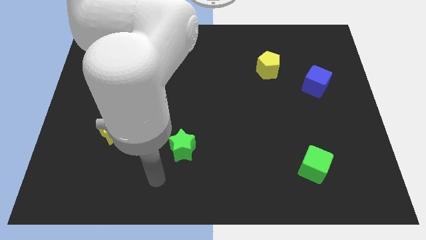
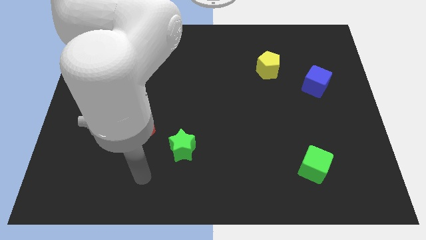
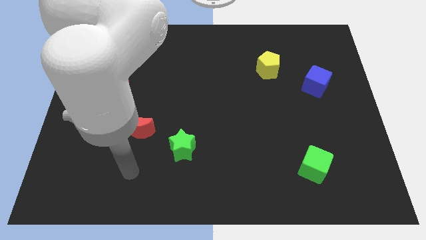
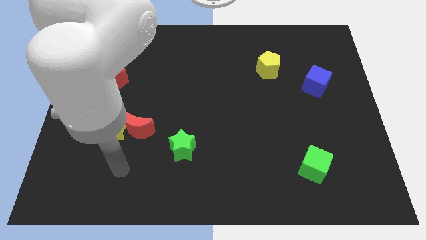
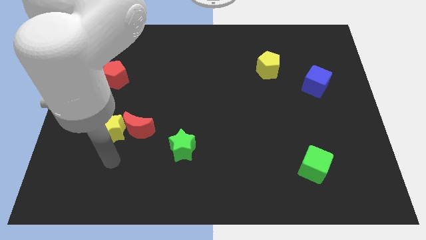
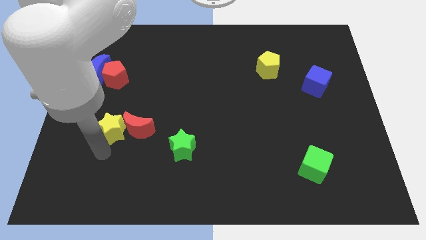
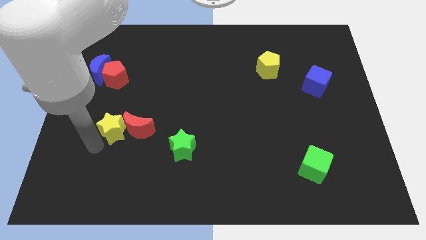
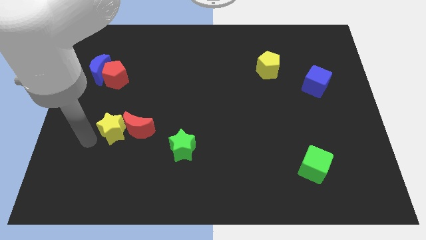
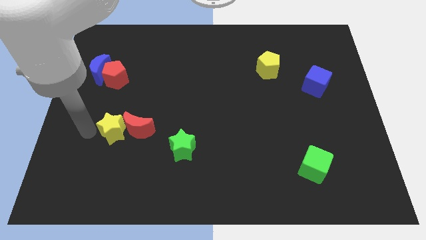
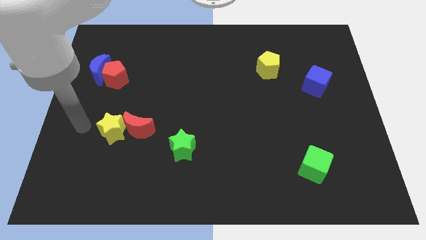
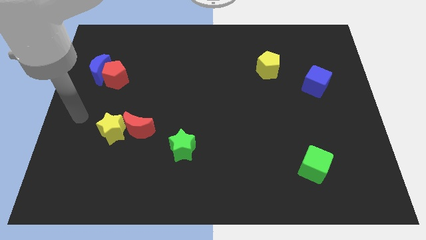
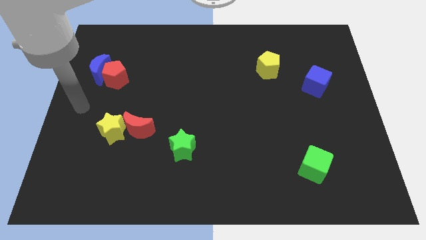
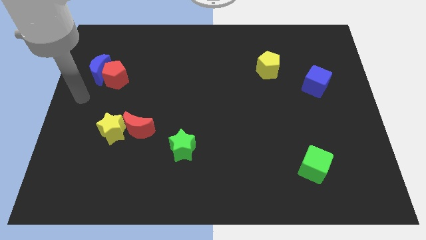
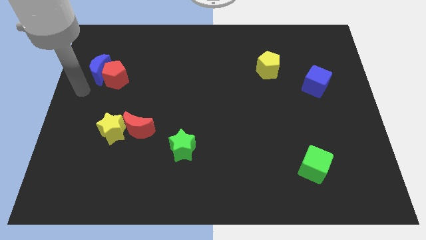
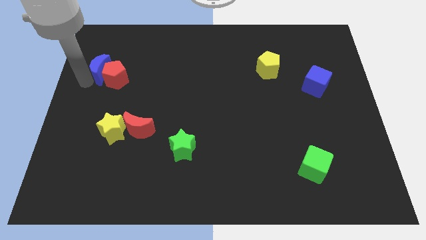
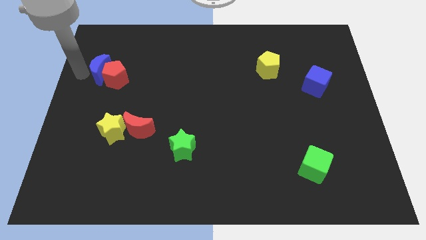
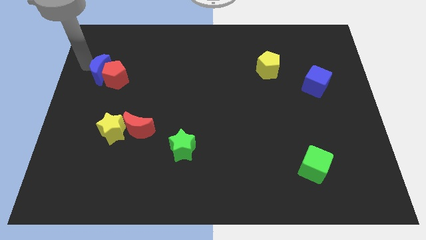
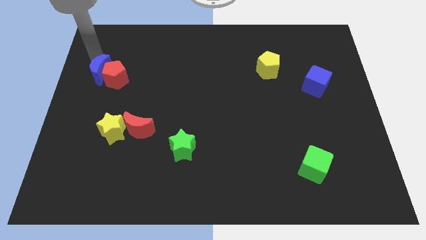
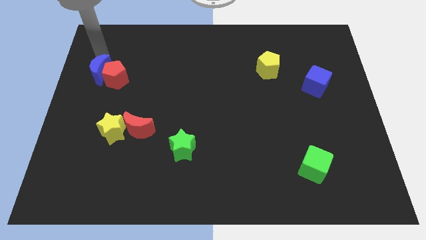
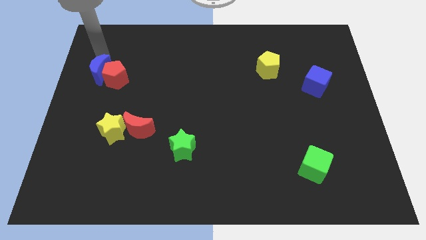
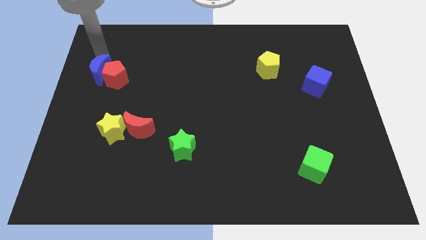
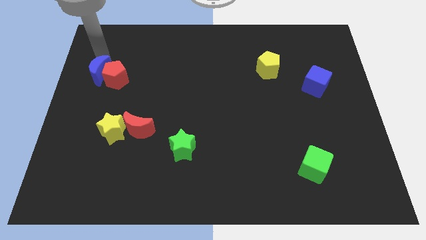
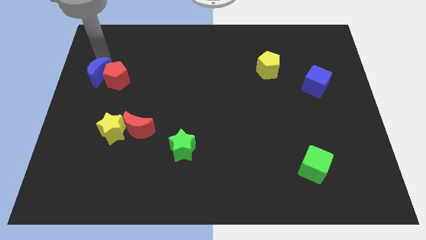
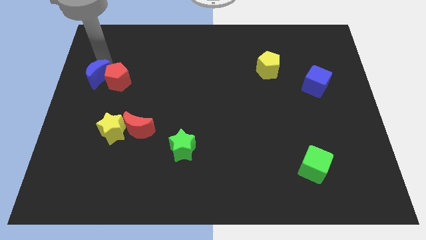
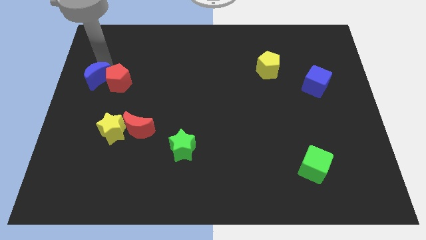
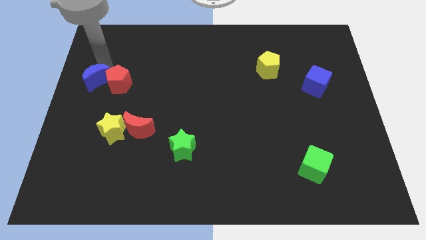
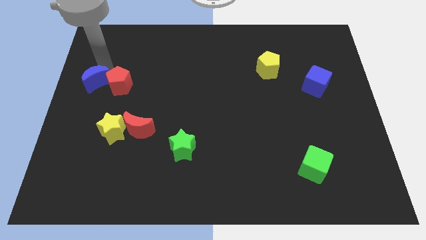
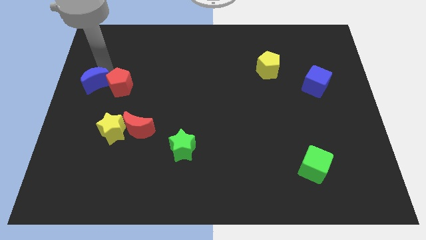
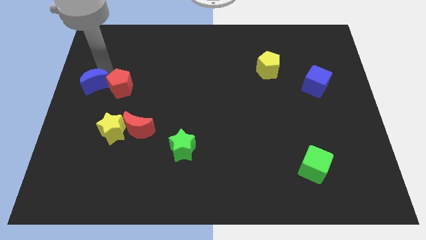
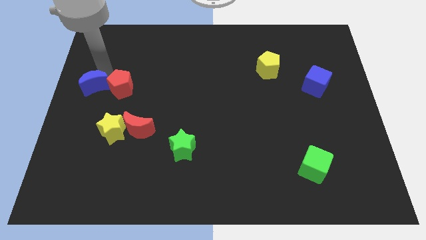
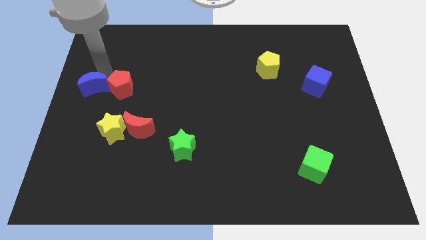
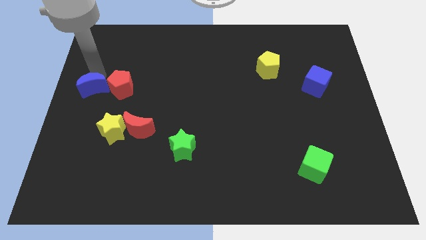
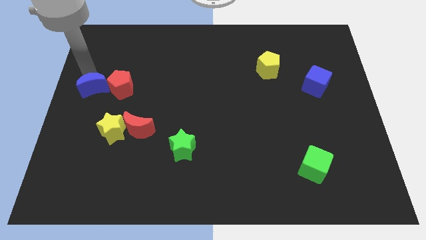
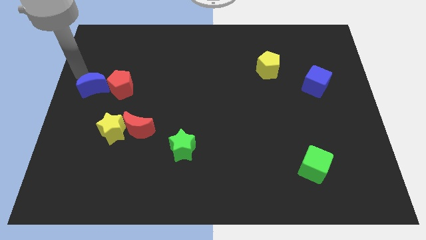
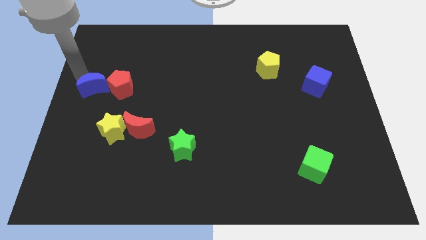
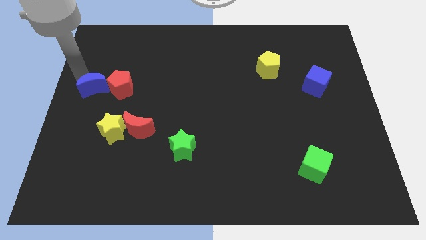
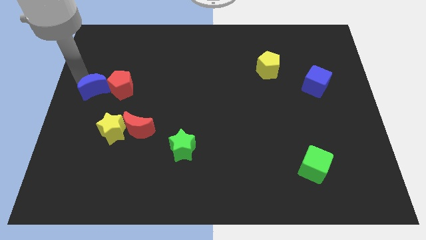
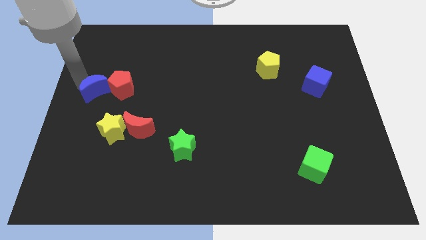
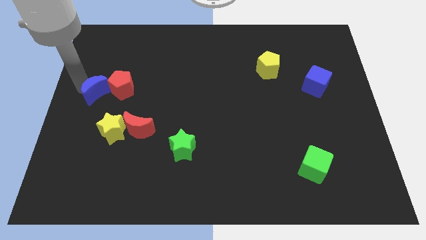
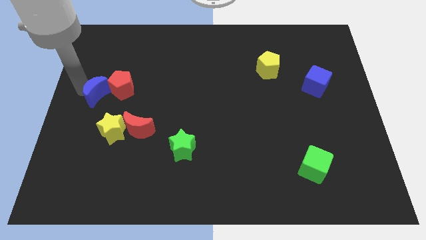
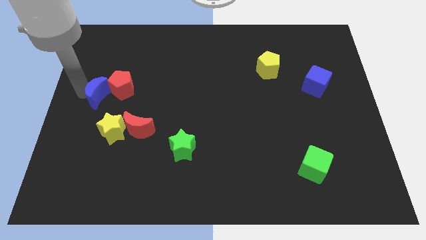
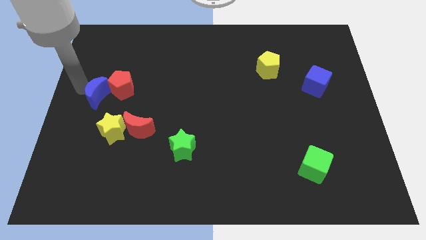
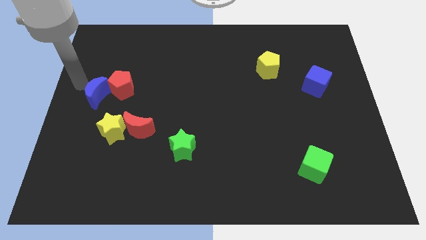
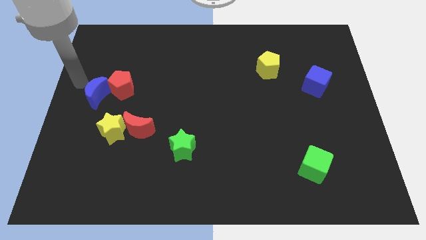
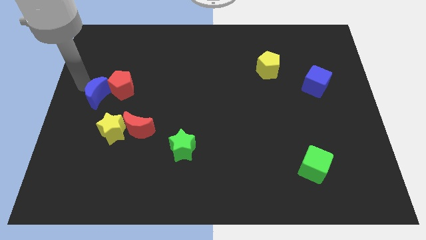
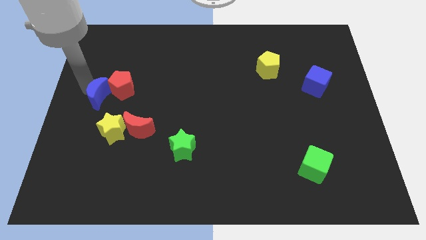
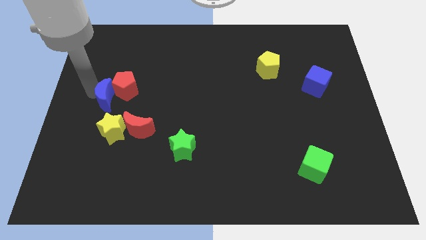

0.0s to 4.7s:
move the blue moon to the top left side of the red moon

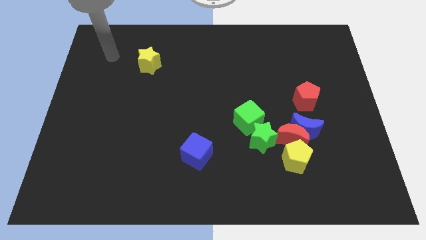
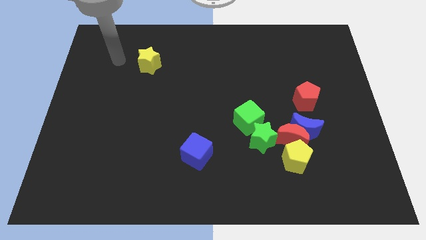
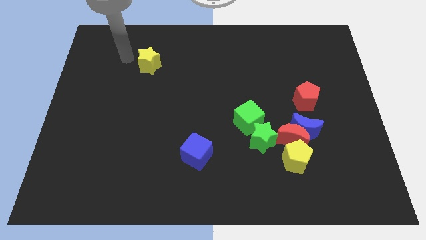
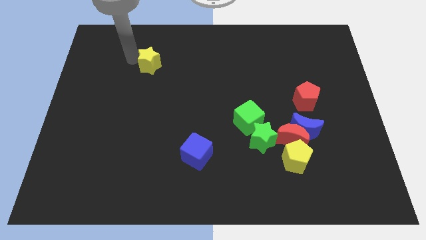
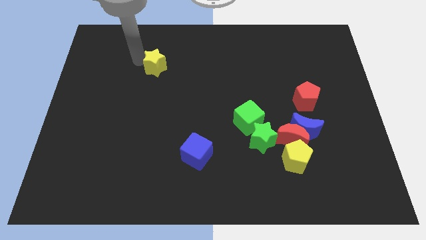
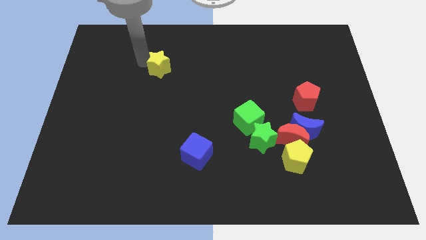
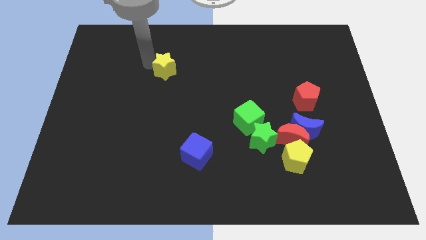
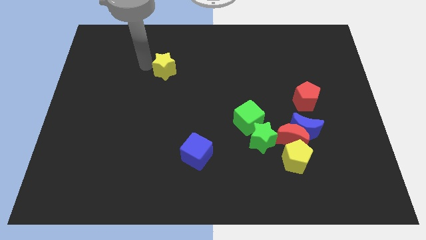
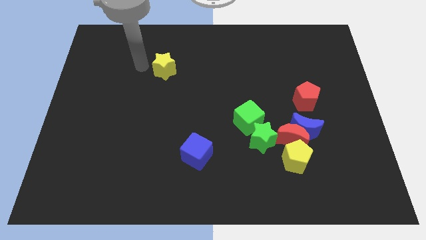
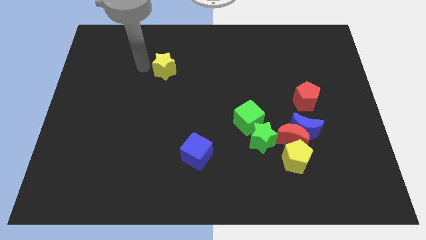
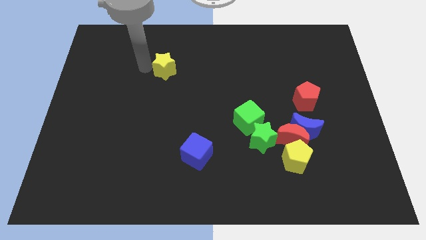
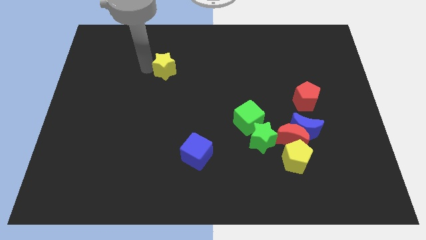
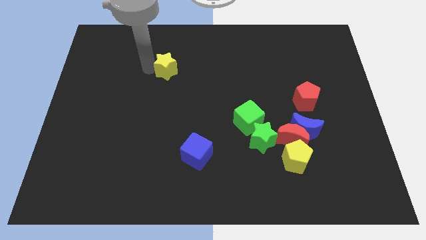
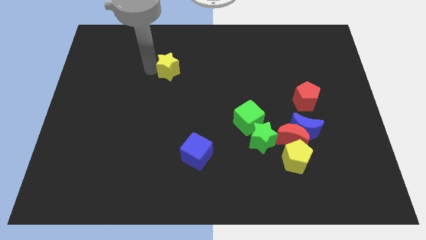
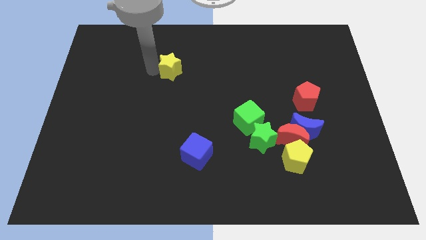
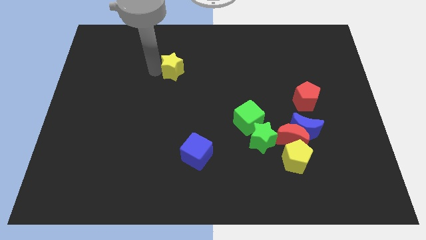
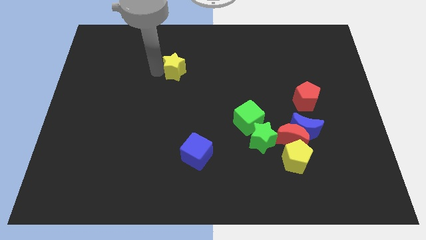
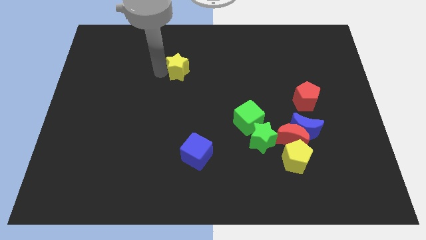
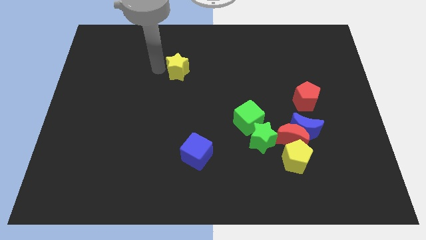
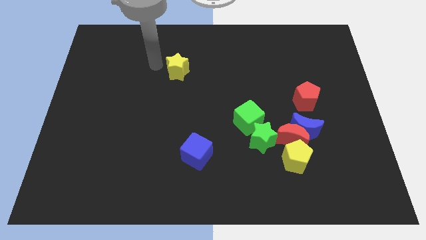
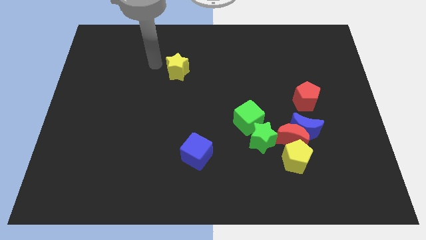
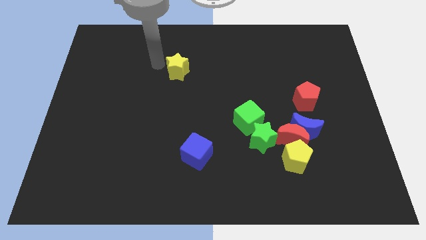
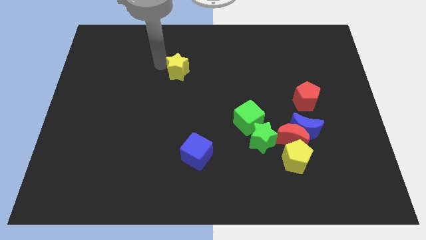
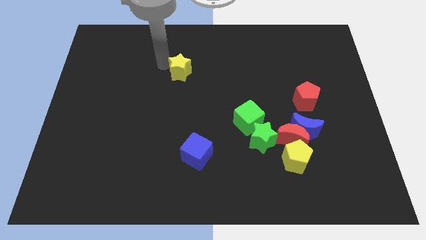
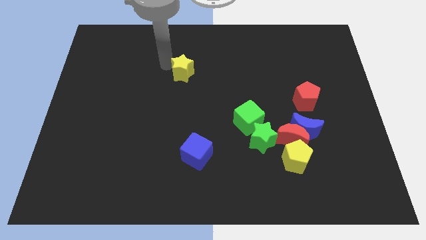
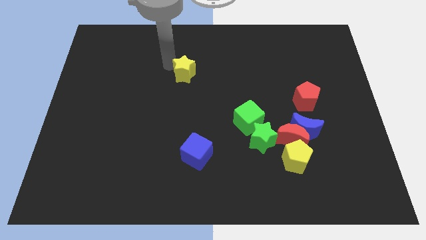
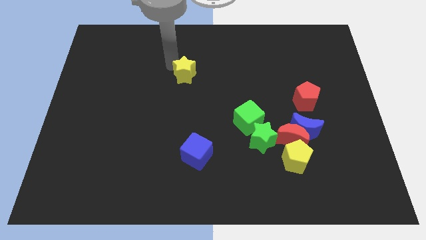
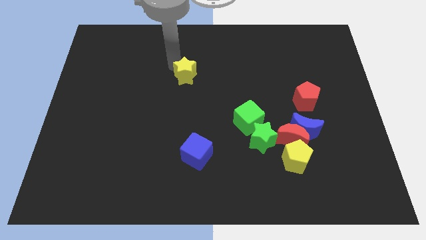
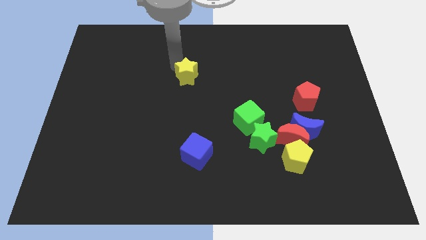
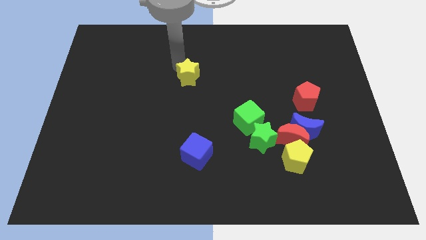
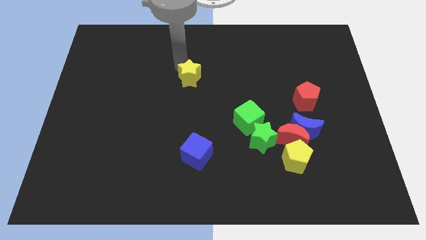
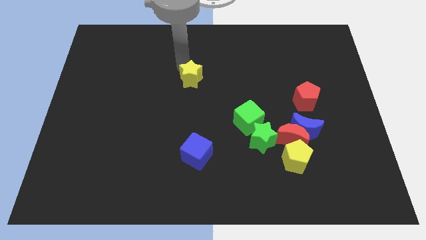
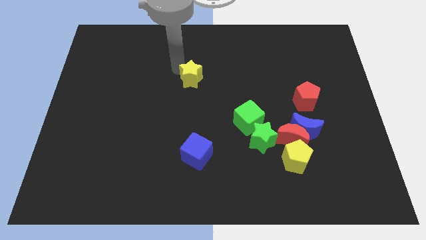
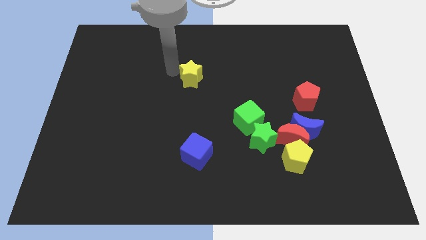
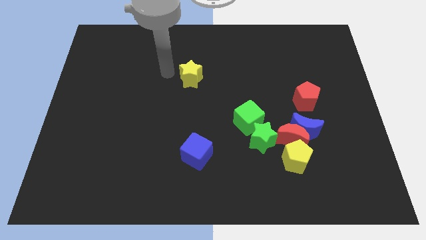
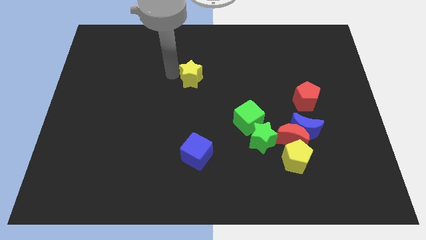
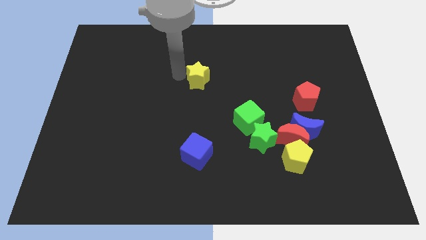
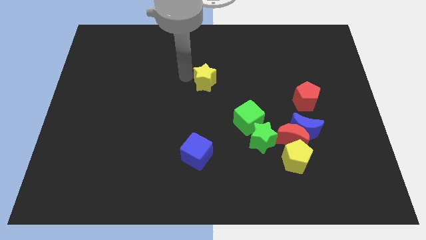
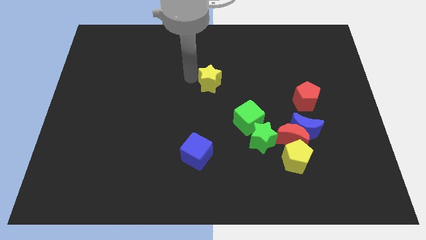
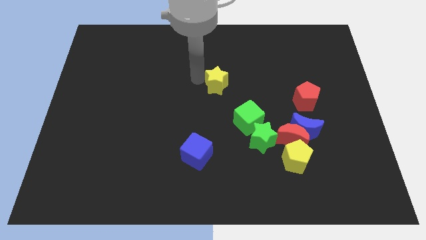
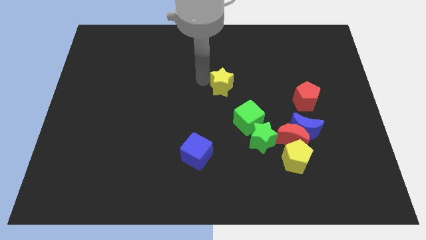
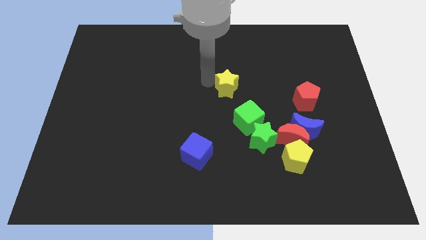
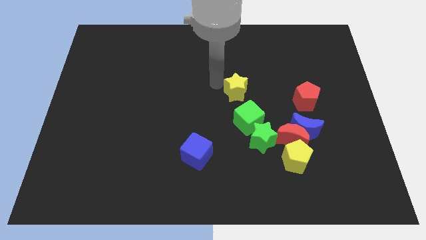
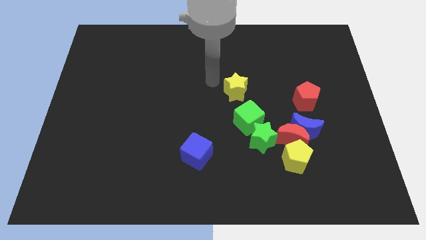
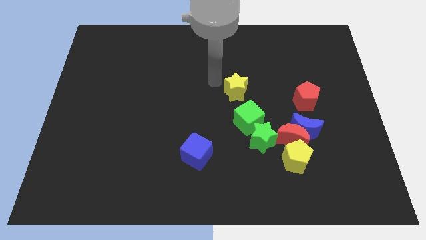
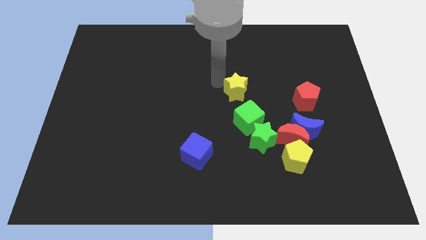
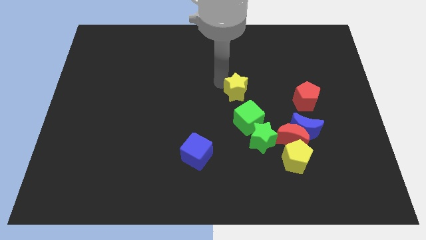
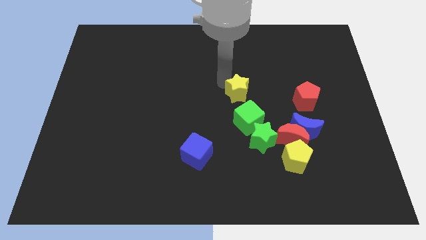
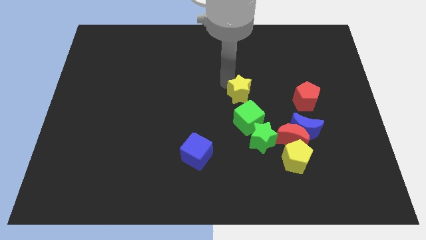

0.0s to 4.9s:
push the yellow star to the left side of the red pentagon
